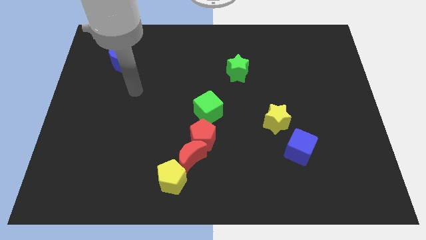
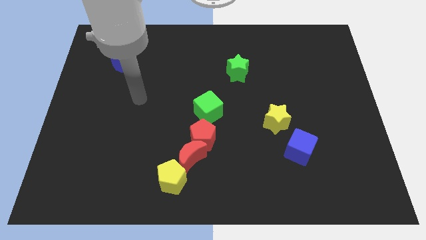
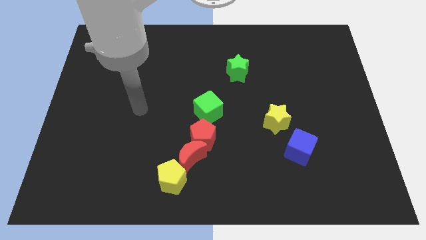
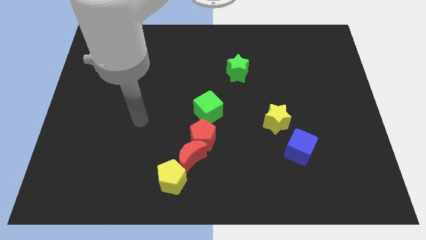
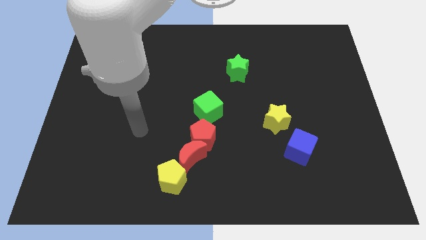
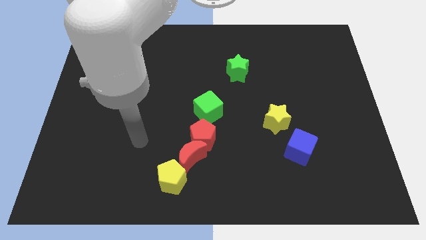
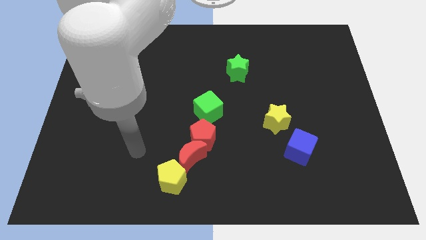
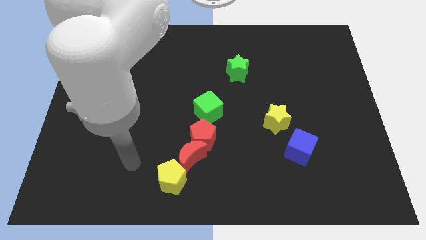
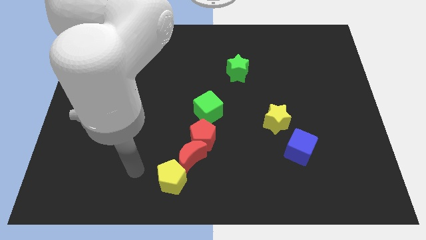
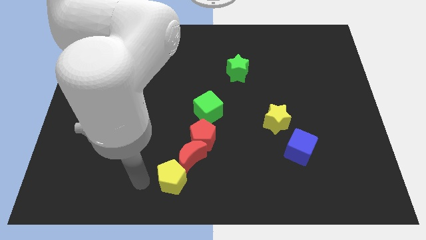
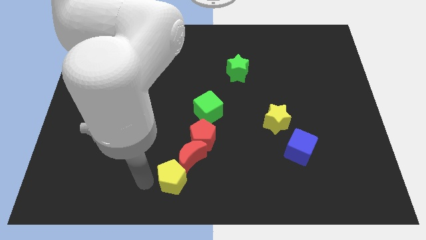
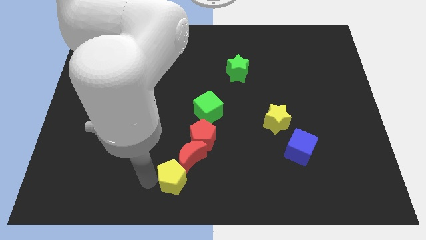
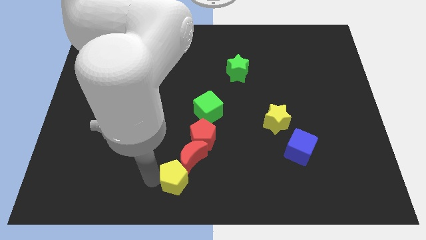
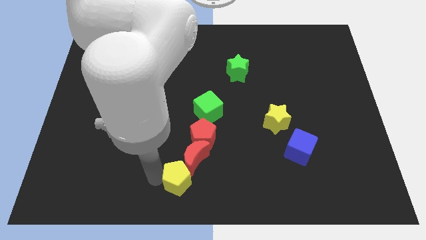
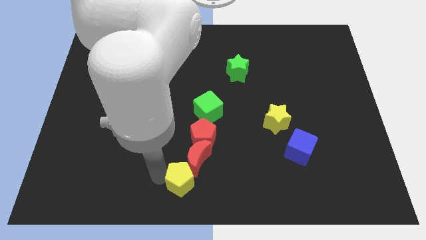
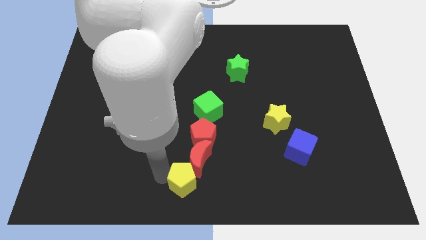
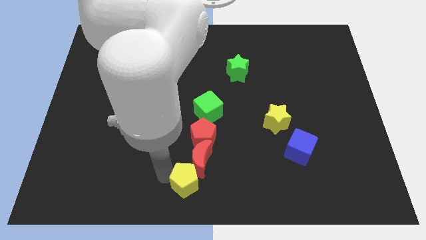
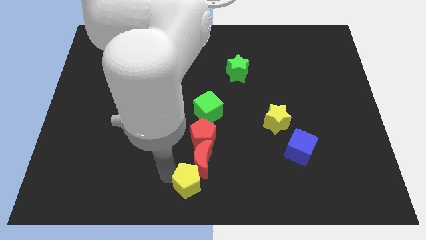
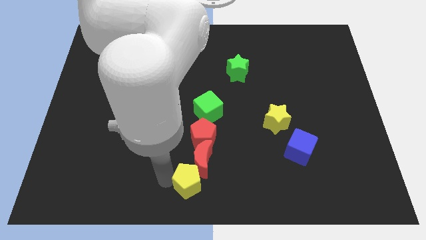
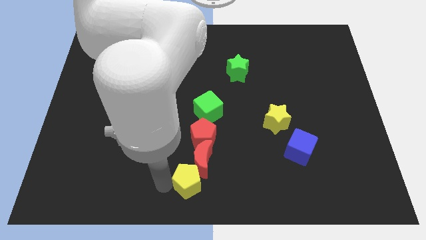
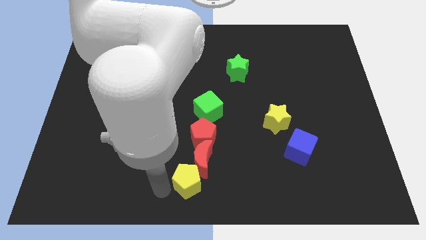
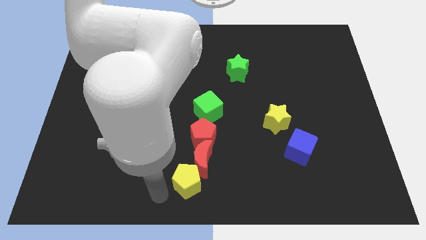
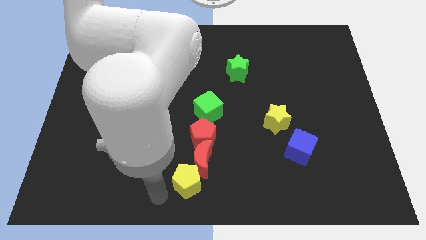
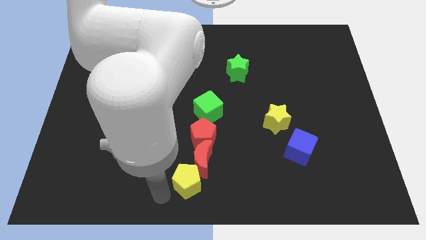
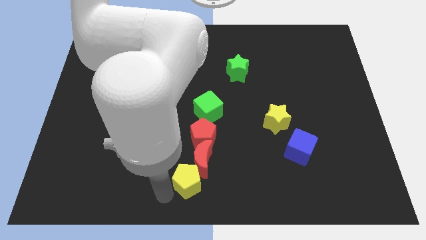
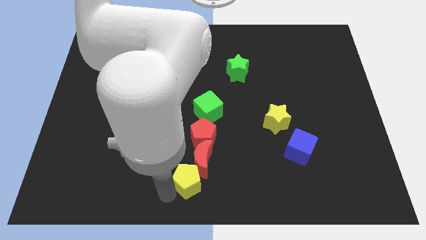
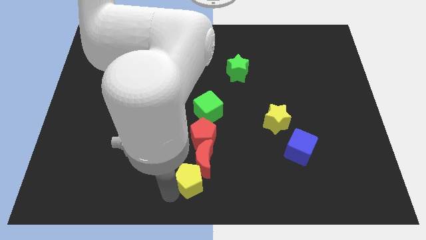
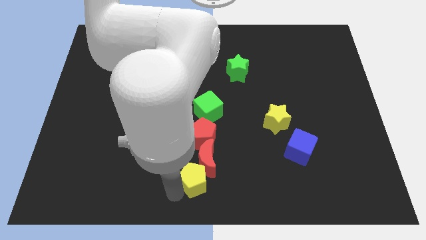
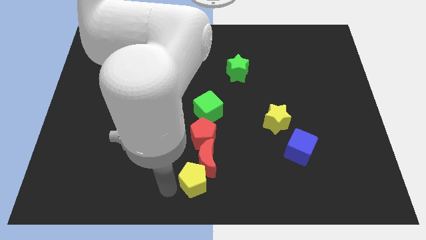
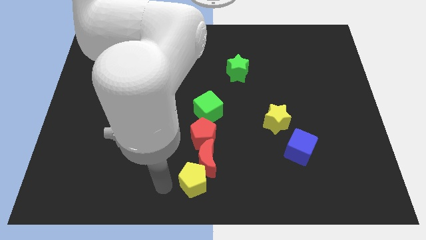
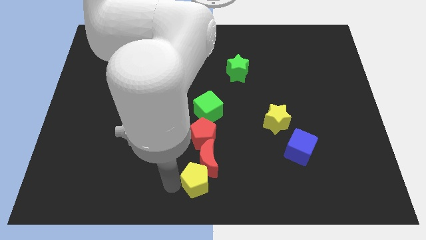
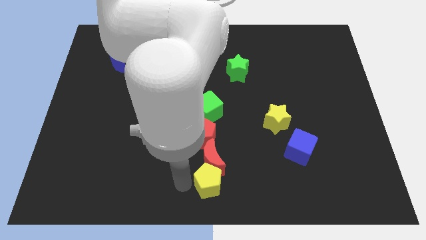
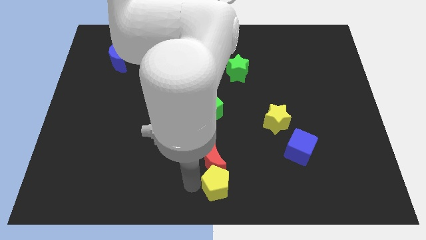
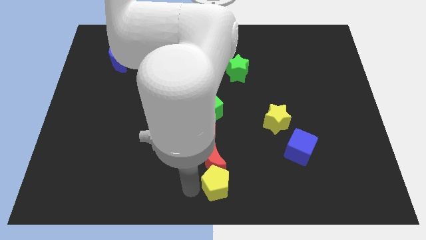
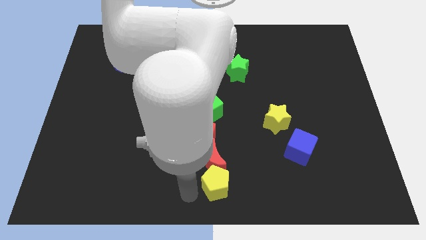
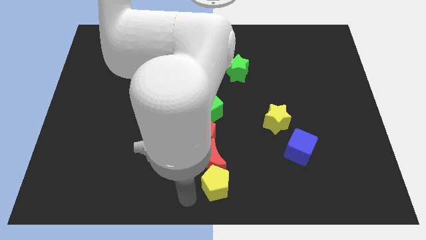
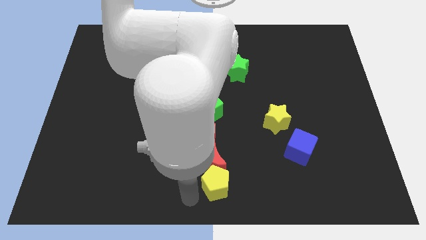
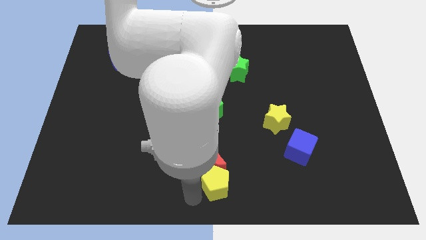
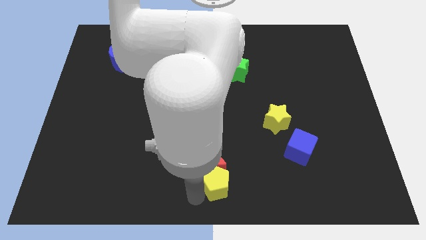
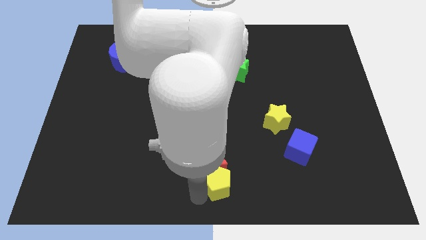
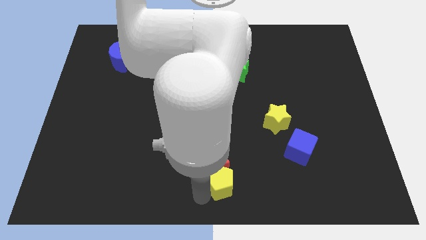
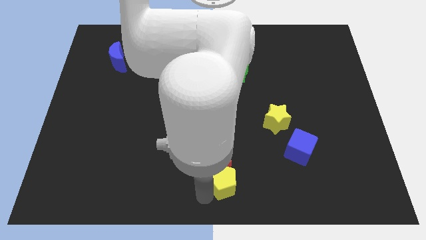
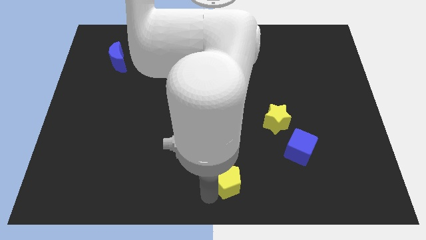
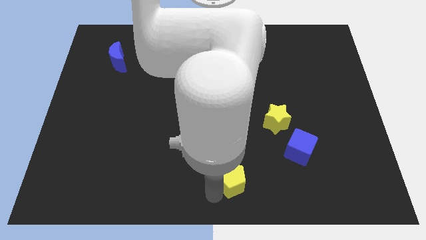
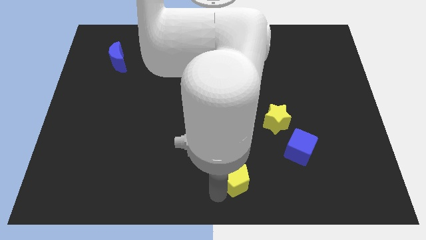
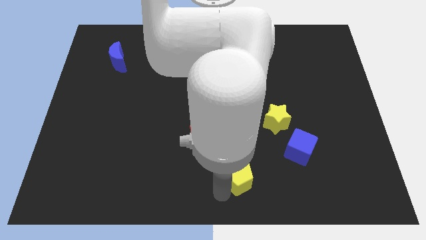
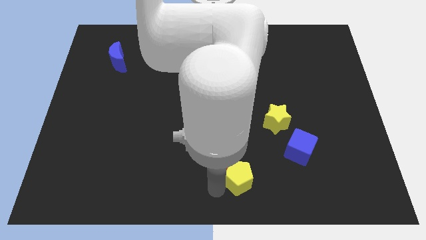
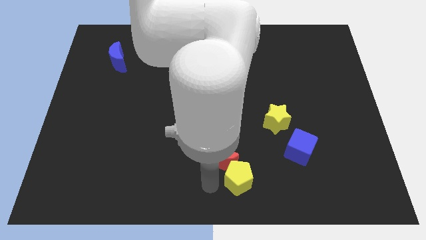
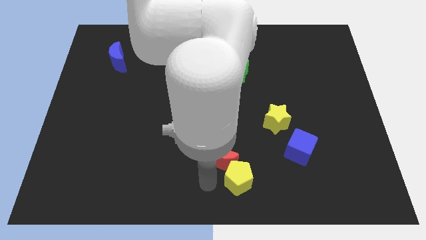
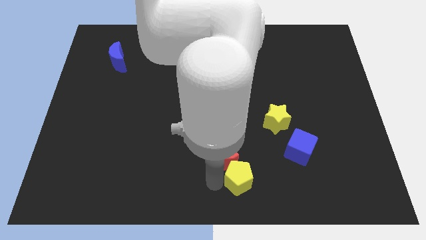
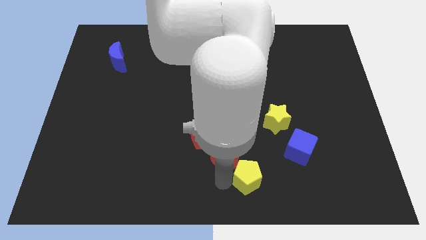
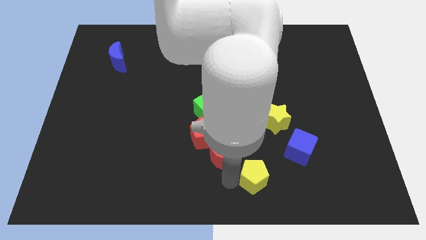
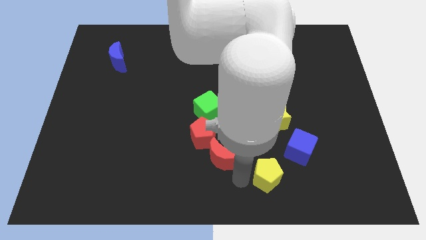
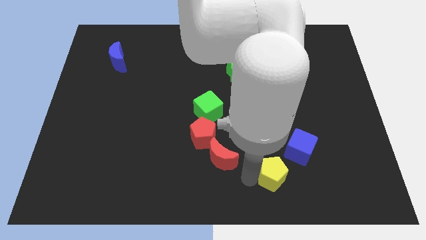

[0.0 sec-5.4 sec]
slide the yellow pentagon to the right

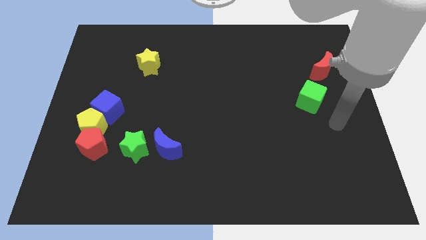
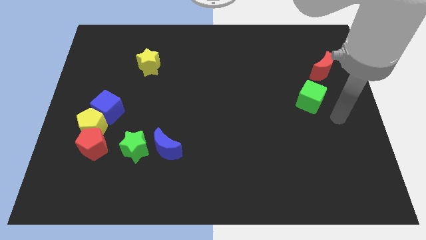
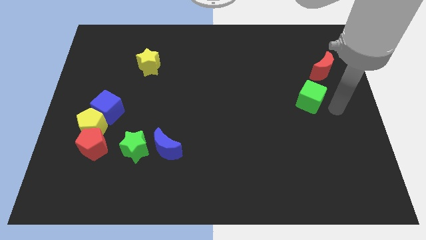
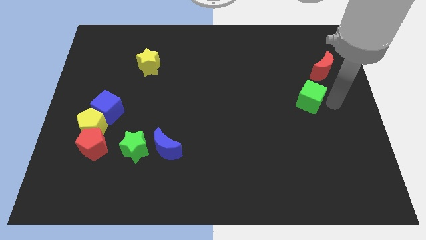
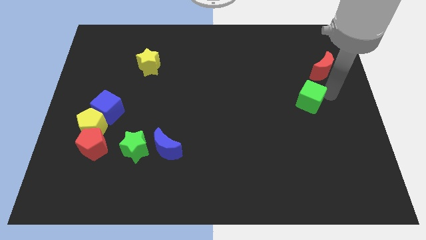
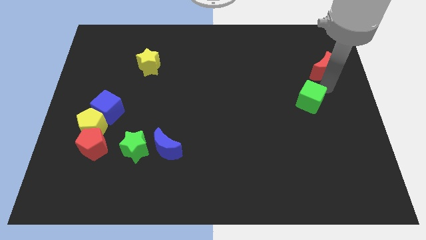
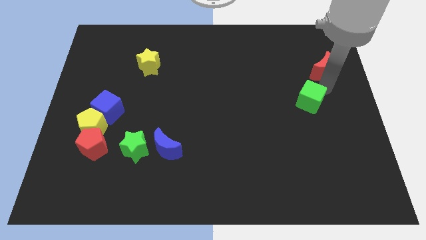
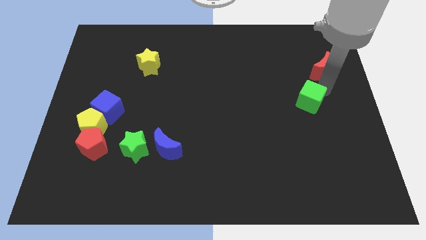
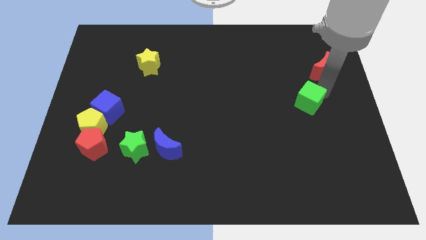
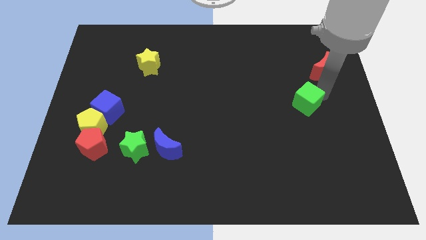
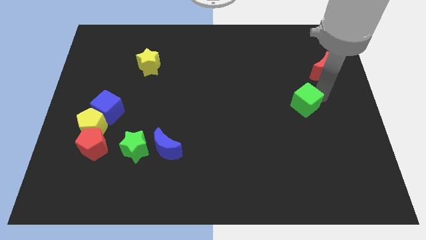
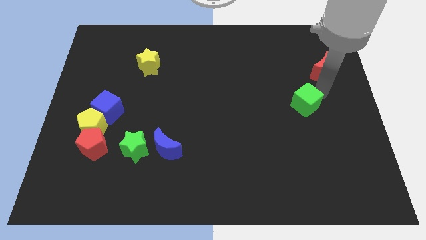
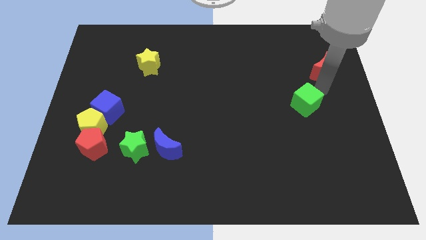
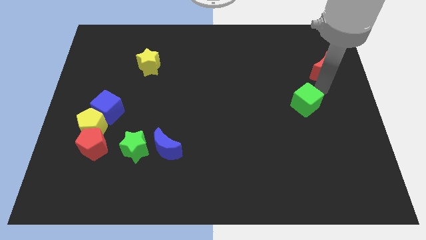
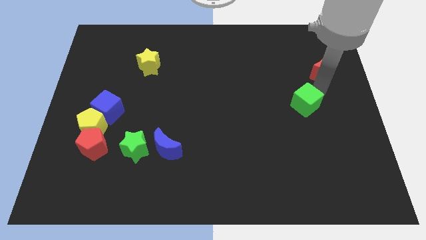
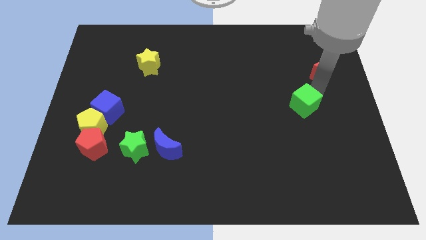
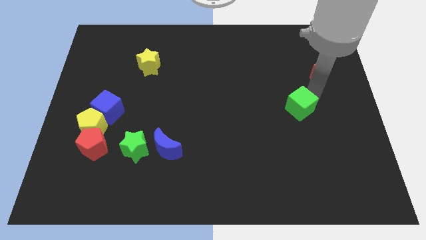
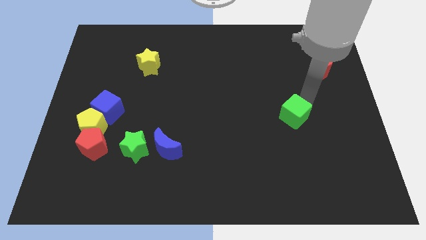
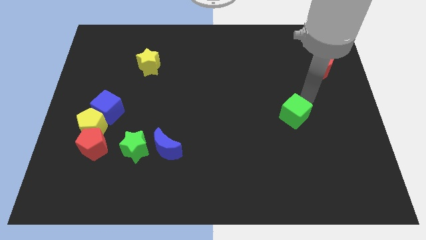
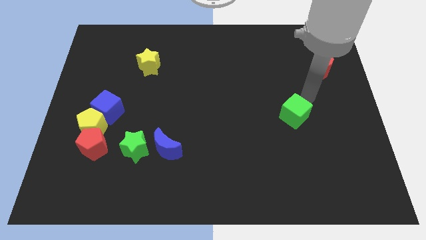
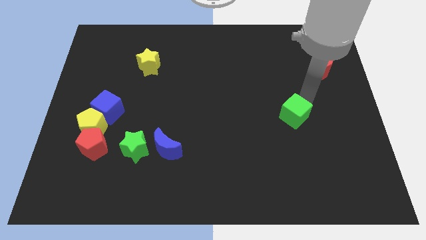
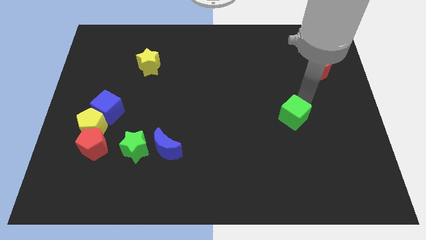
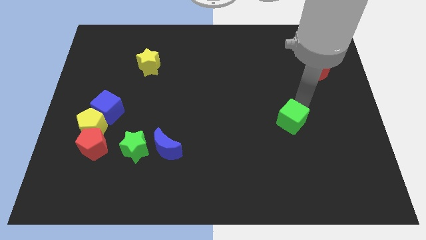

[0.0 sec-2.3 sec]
move the green cube somewhat down and left

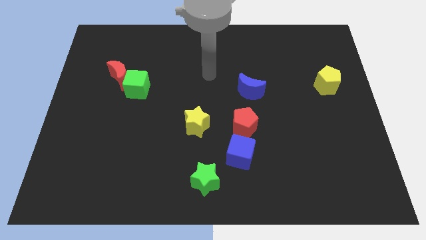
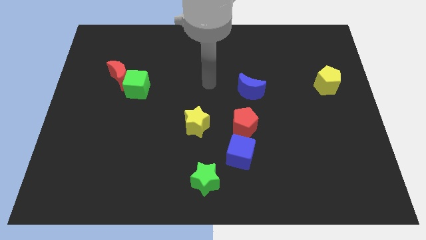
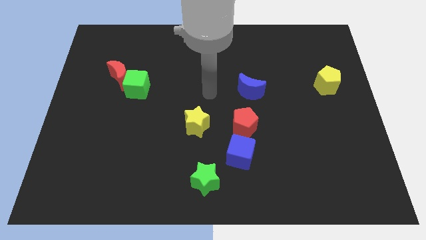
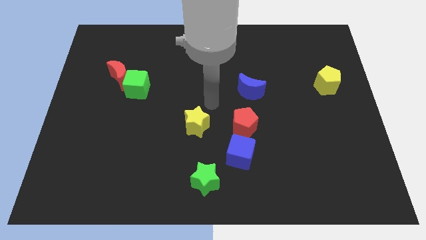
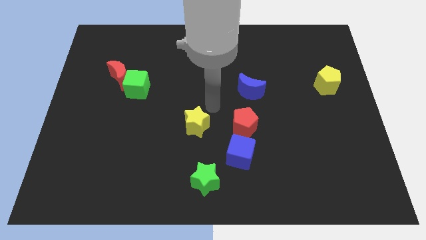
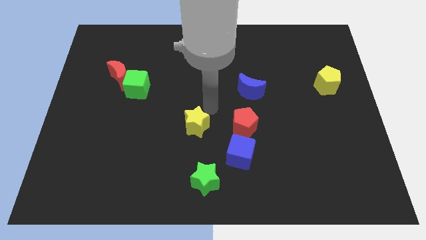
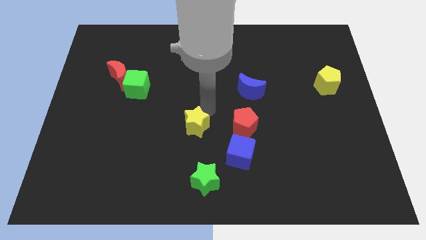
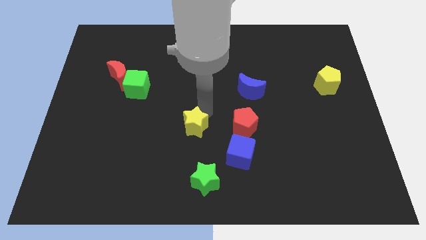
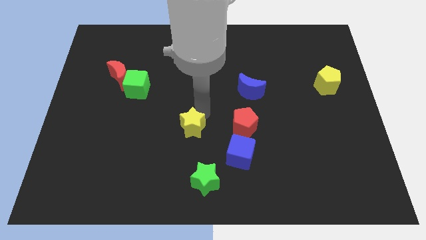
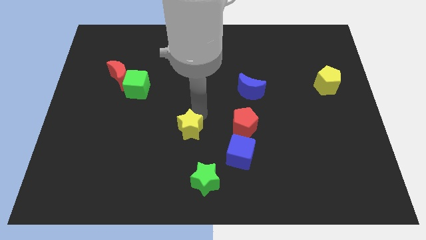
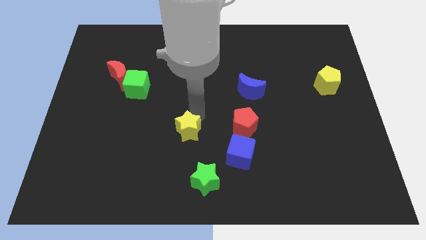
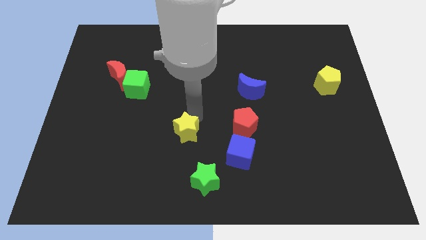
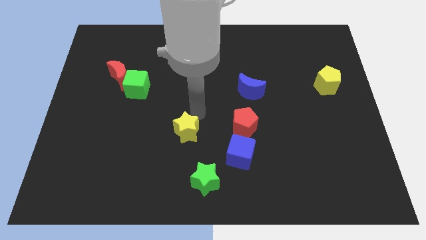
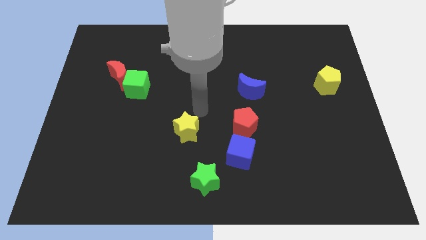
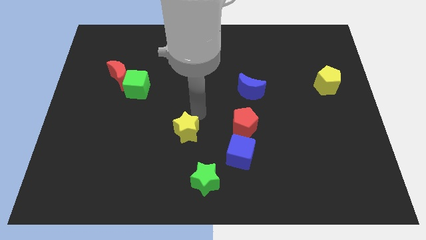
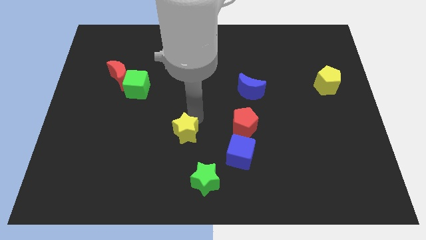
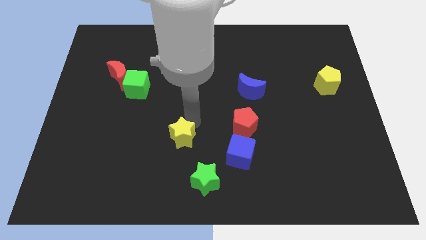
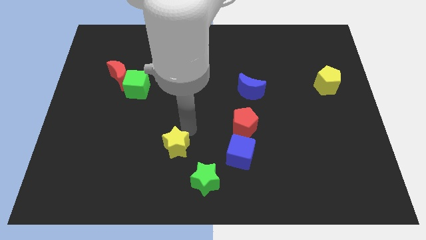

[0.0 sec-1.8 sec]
push the yellow star a bit downwards and left diagonally
